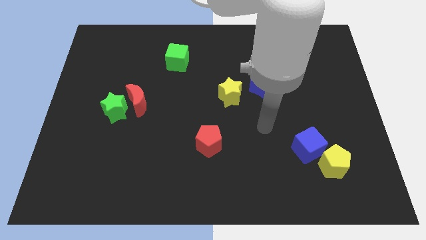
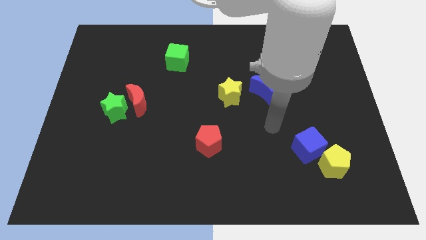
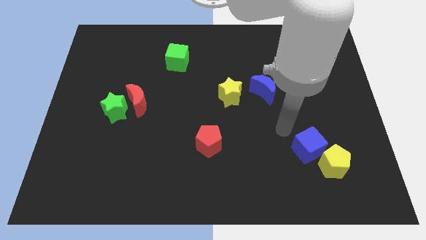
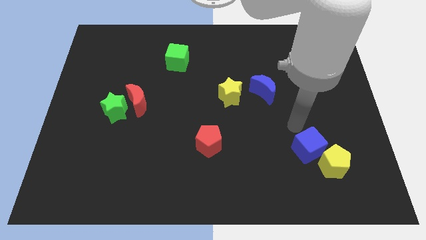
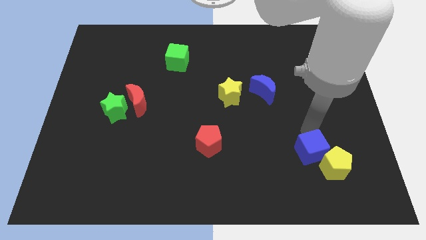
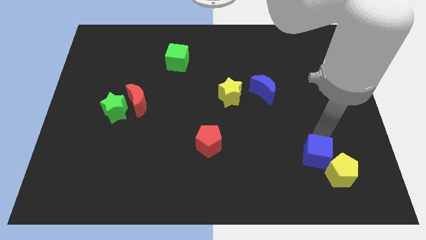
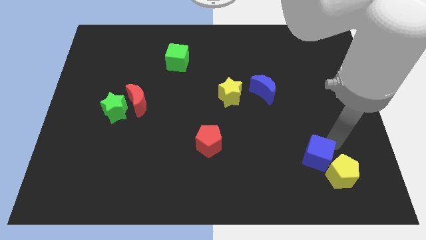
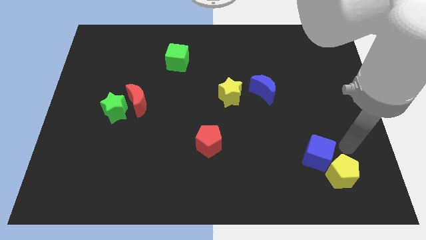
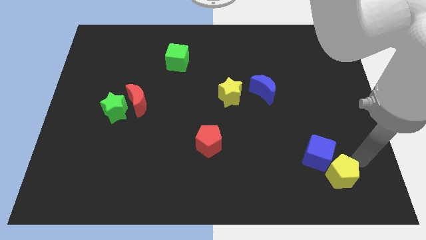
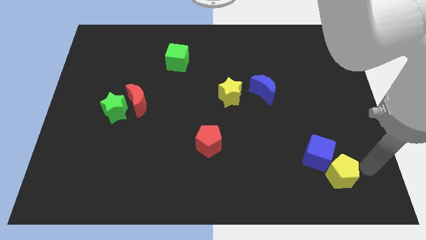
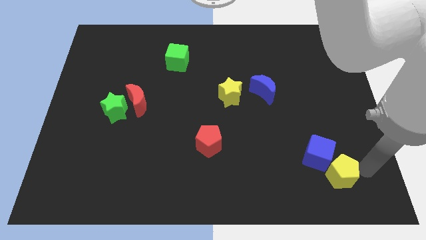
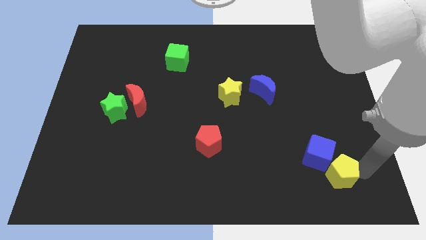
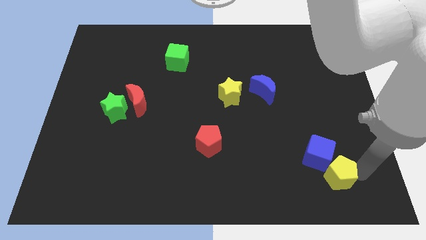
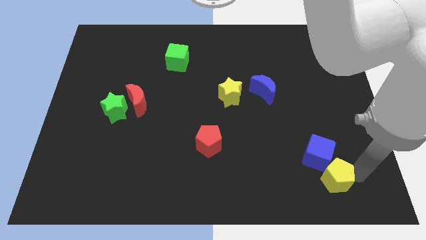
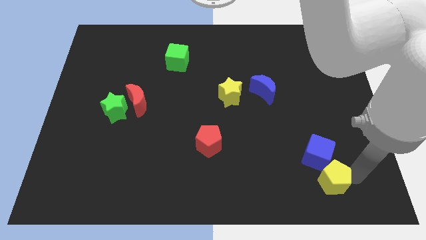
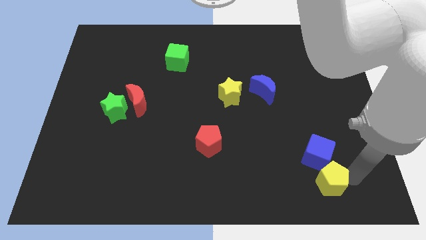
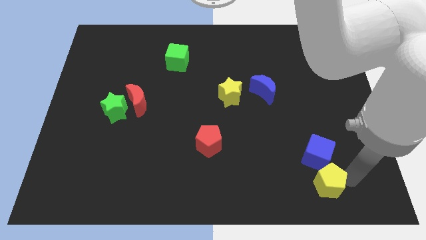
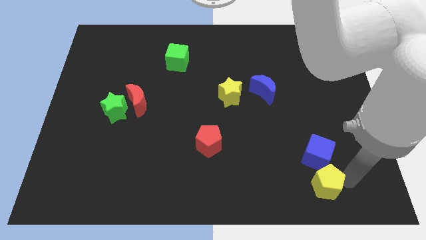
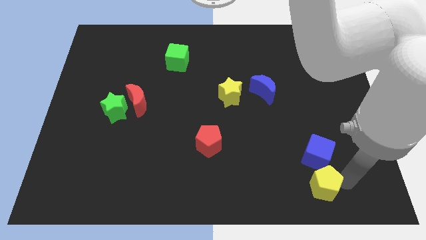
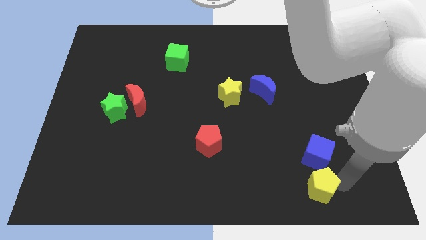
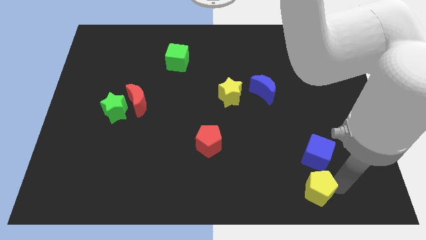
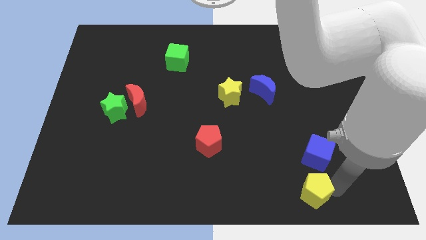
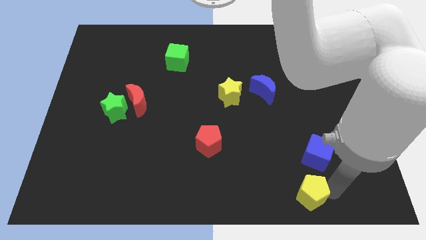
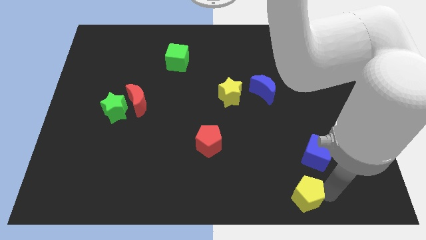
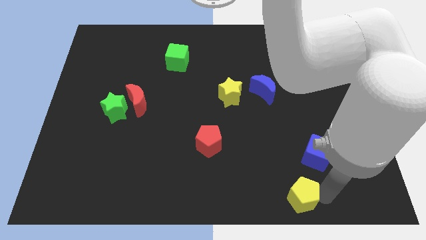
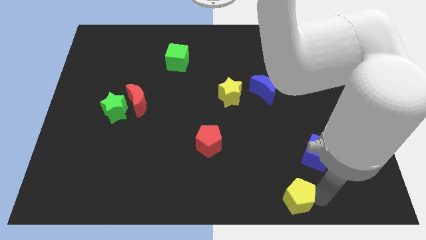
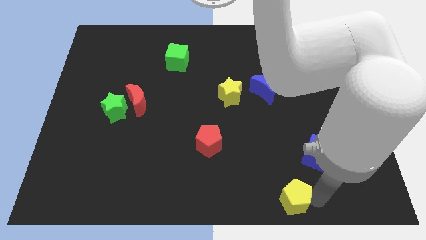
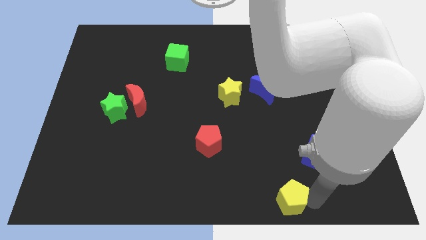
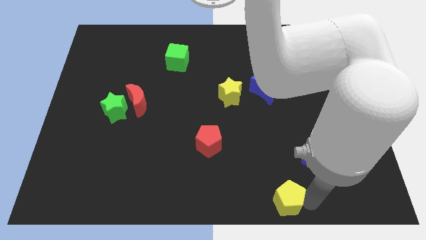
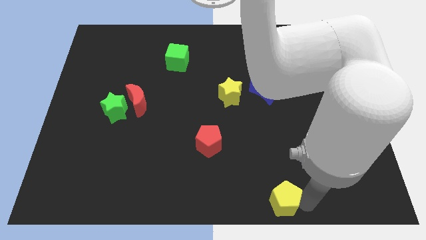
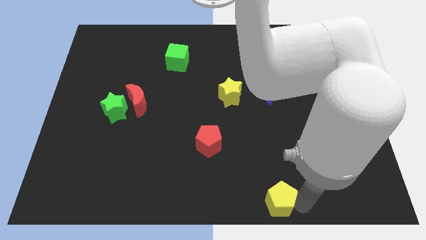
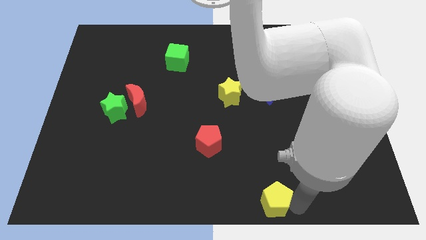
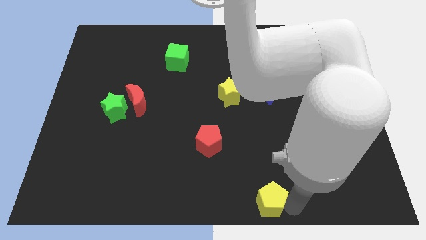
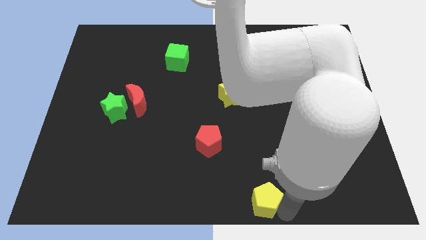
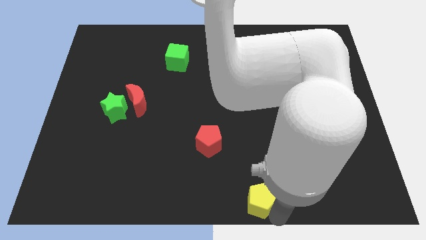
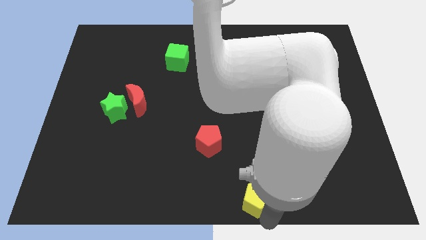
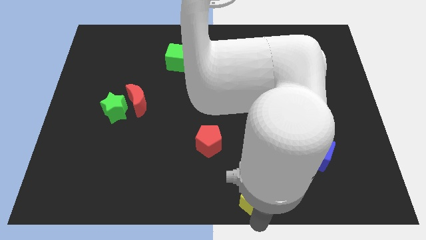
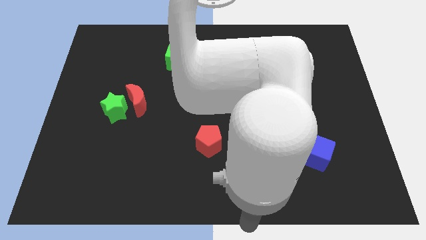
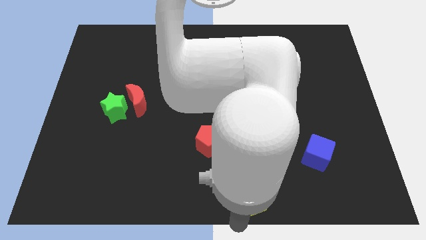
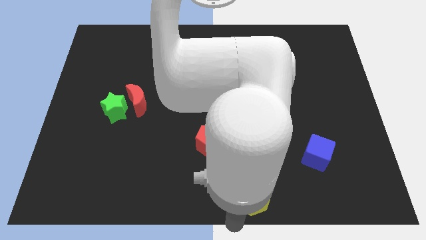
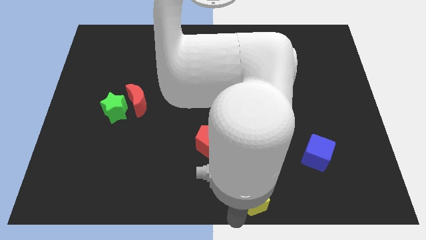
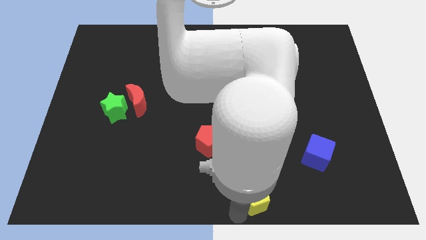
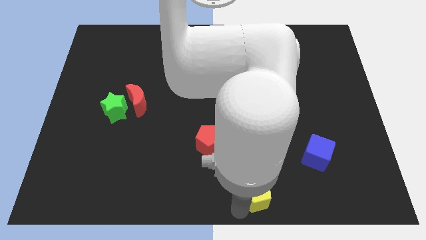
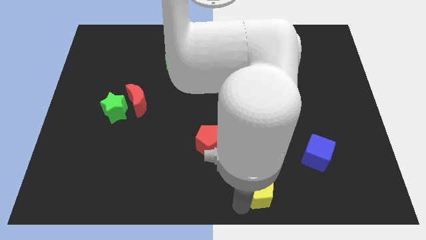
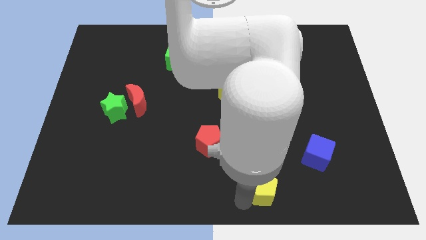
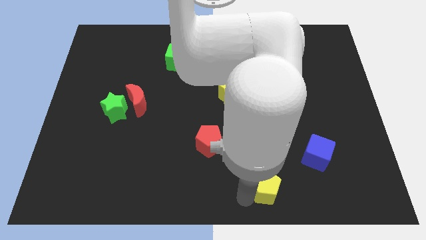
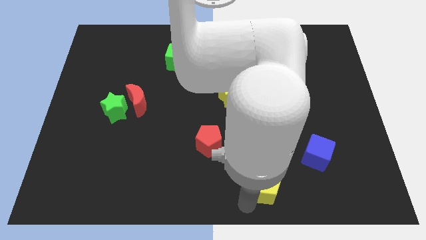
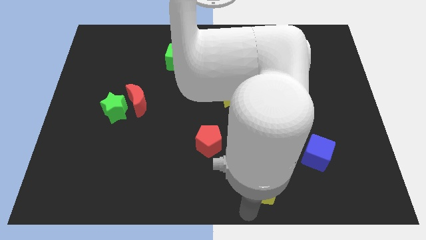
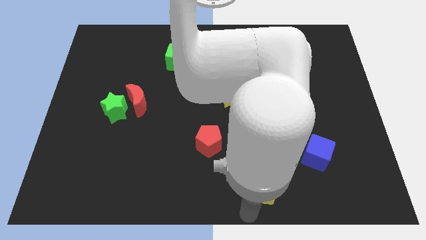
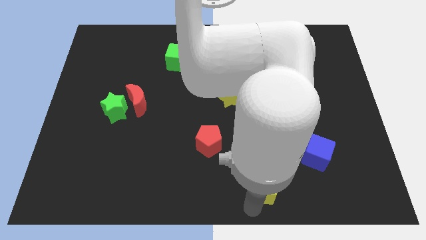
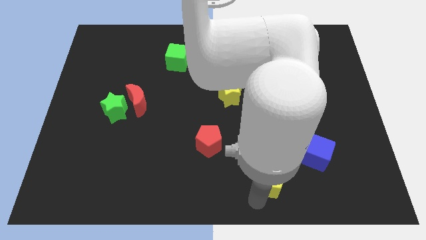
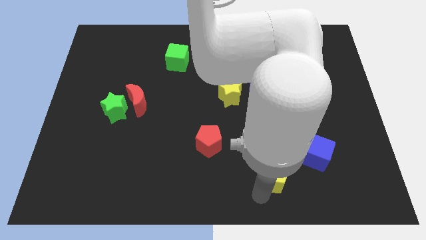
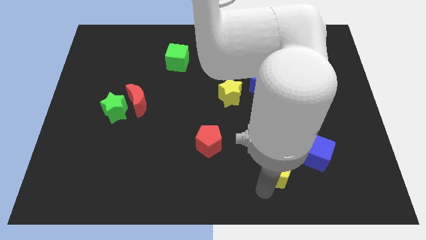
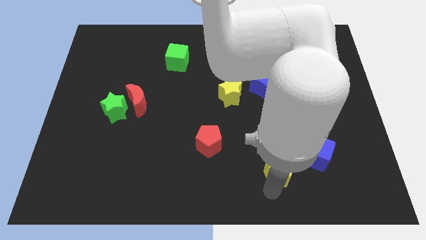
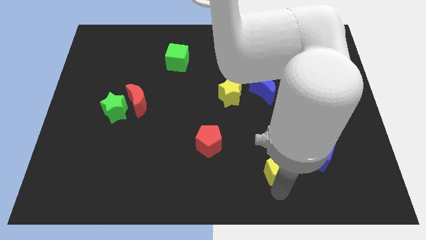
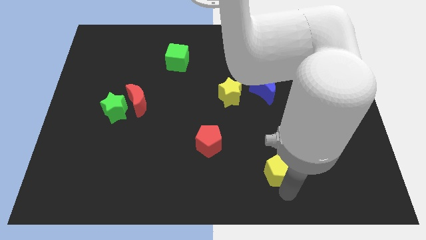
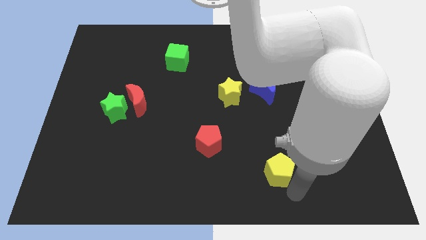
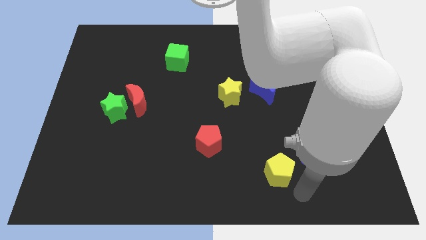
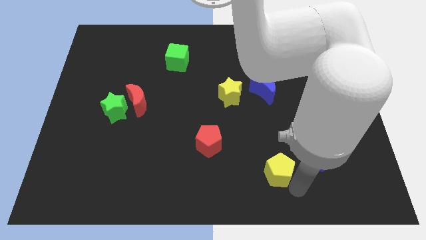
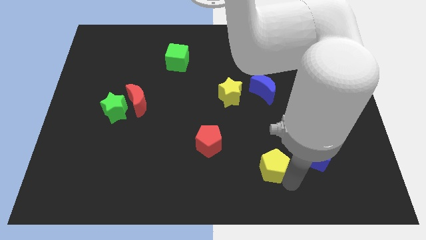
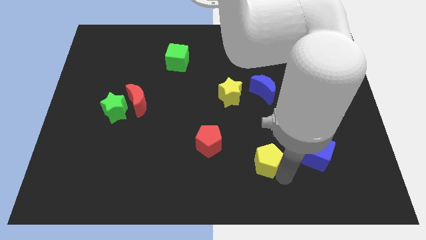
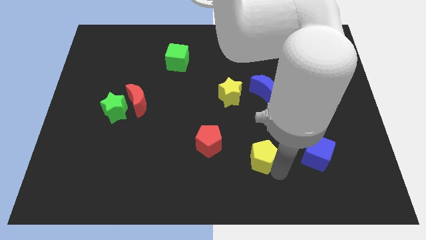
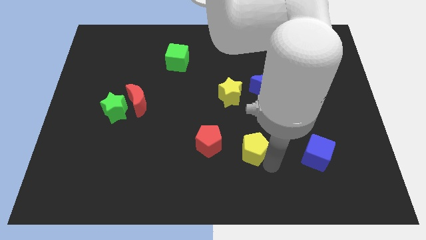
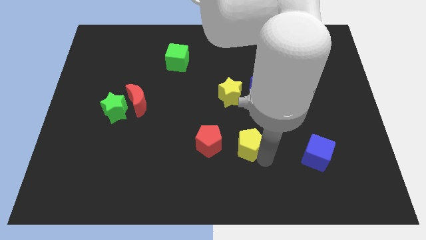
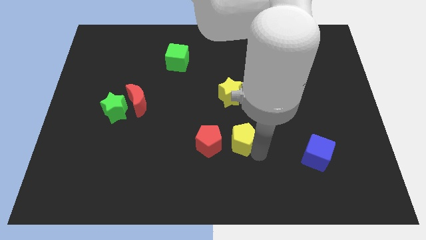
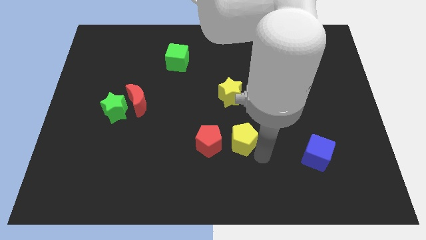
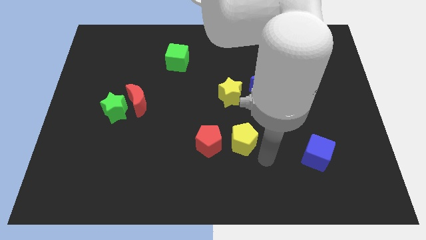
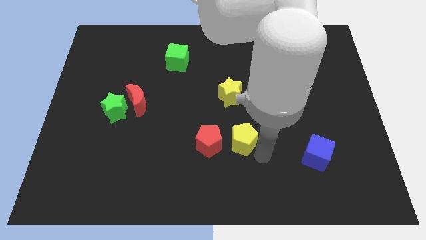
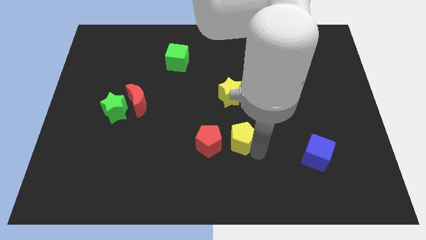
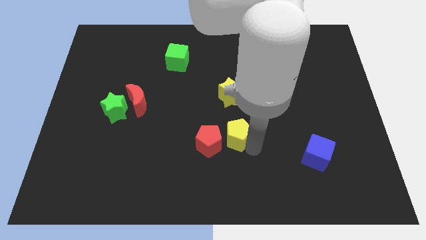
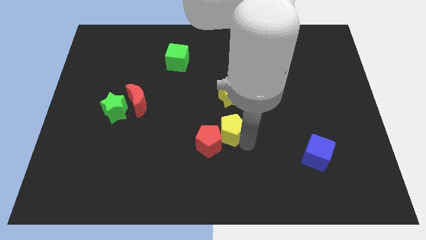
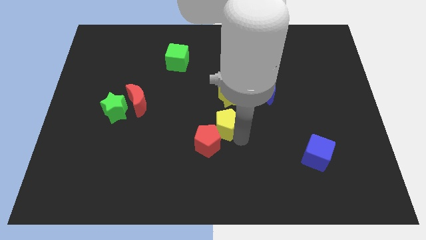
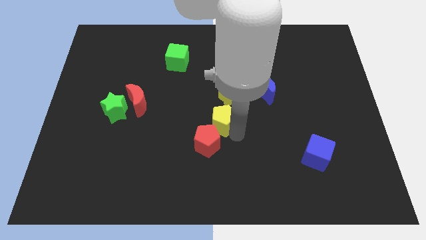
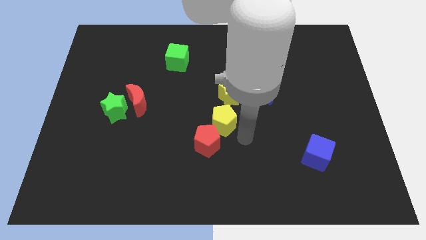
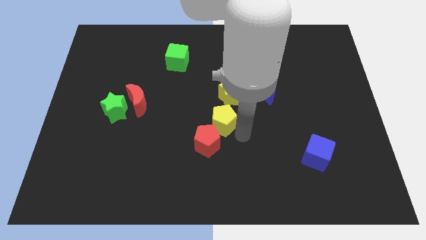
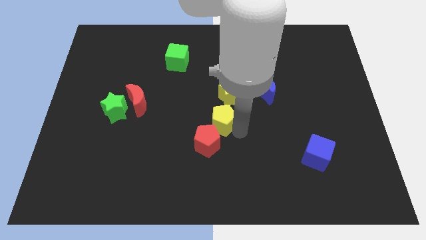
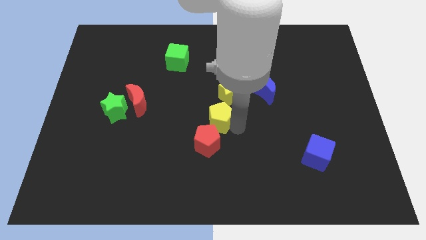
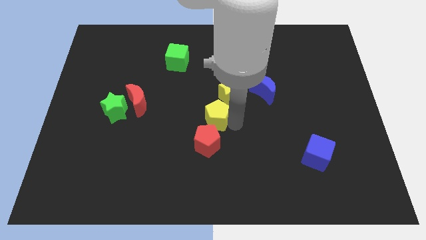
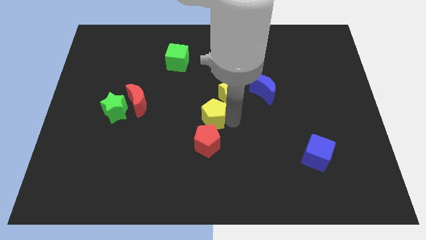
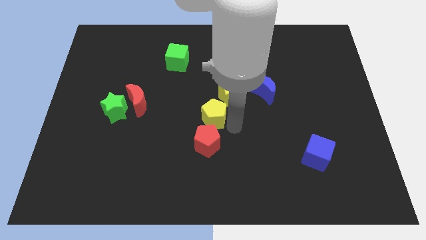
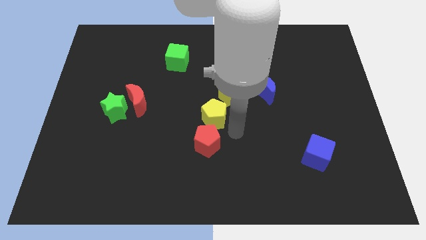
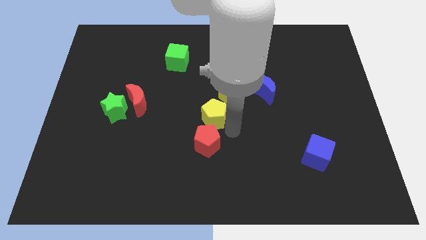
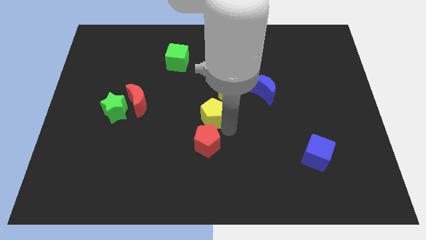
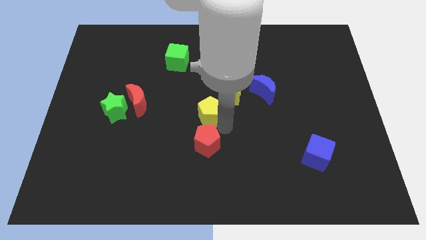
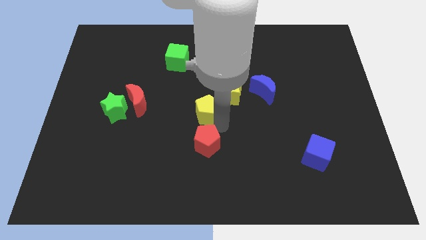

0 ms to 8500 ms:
push the yellow pentagon just left of the yellow star
